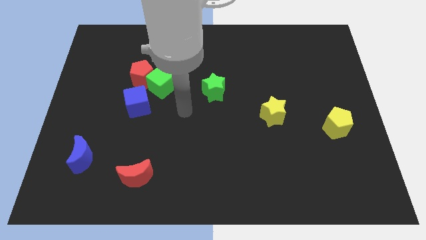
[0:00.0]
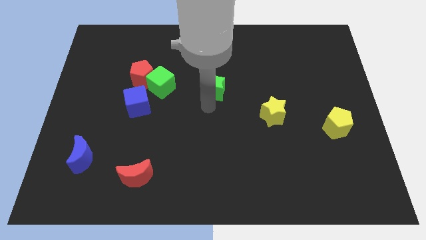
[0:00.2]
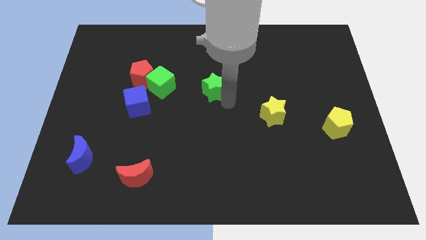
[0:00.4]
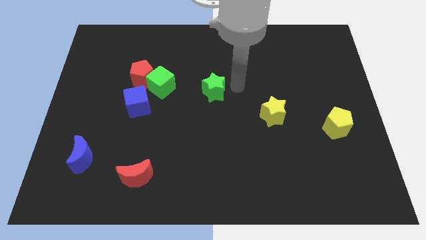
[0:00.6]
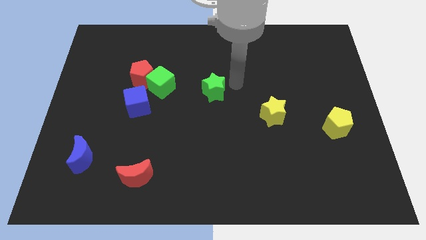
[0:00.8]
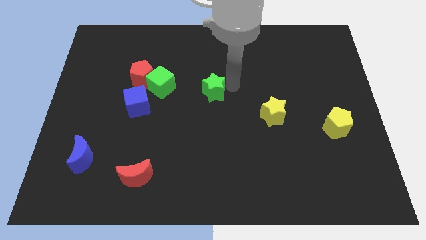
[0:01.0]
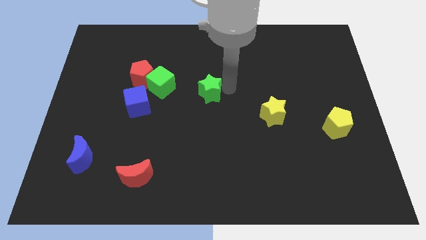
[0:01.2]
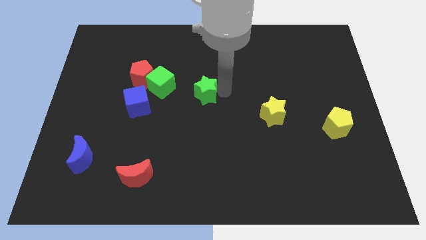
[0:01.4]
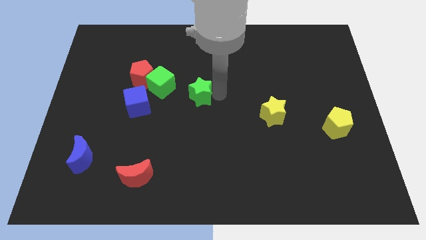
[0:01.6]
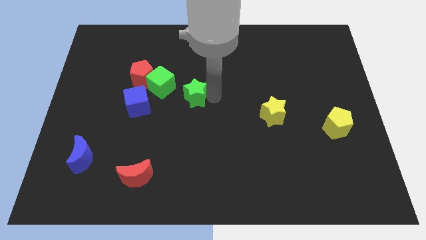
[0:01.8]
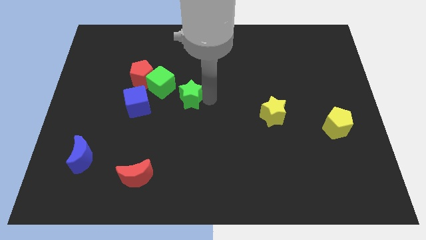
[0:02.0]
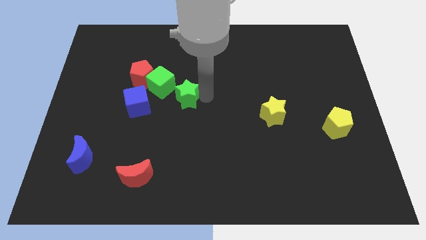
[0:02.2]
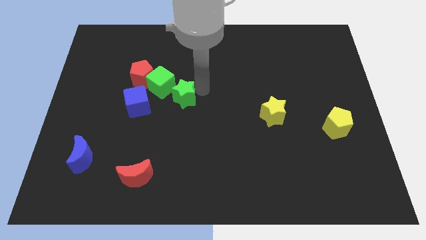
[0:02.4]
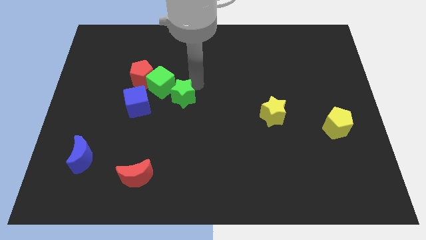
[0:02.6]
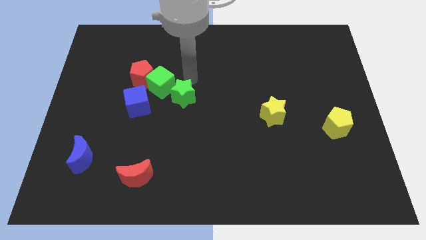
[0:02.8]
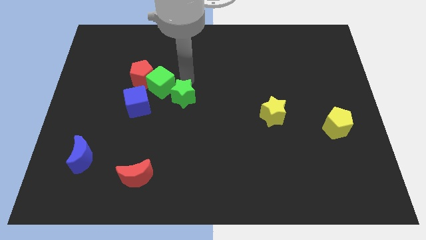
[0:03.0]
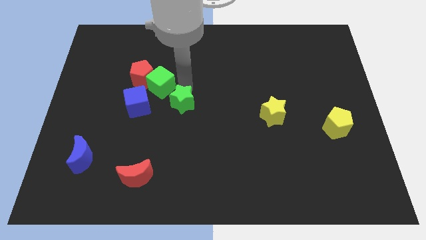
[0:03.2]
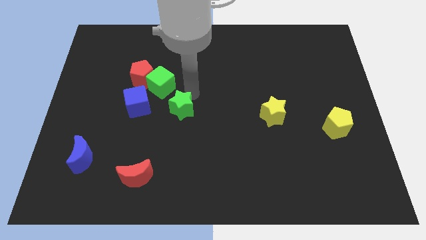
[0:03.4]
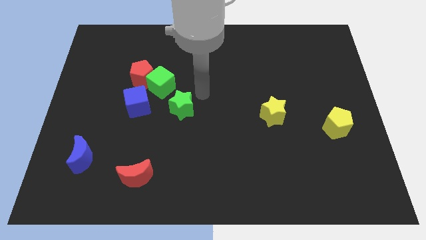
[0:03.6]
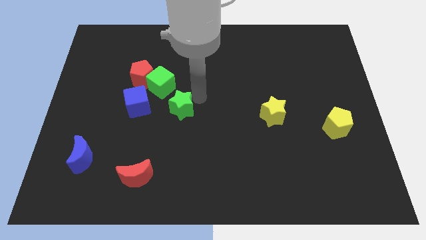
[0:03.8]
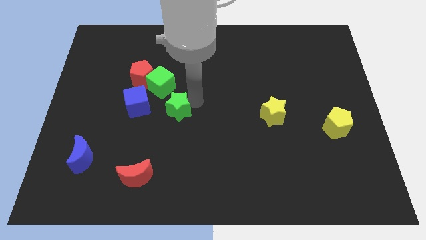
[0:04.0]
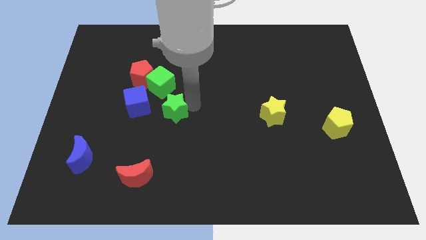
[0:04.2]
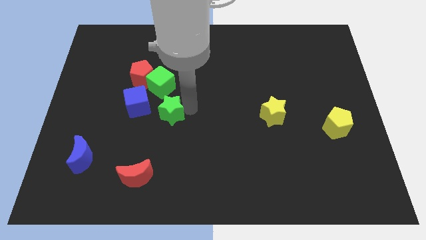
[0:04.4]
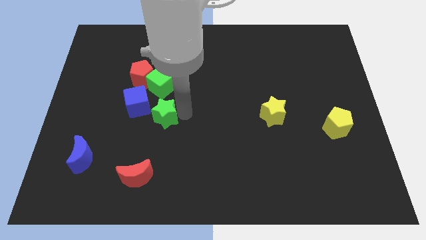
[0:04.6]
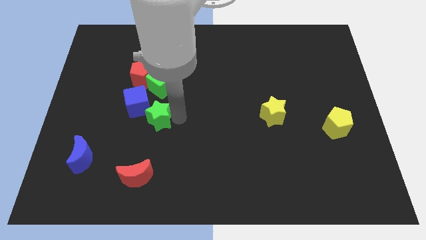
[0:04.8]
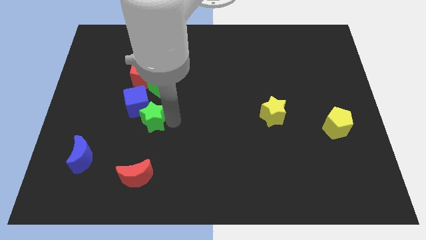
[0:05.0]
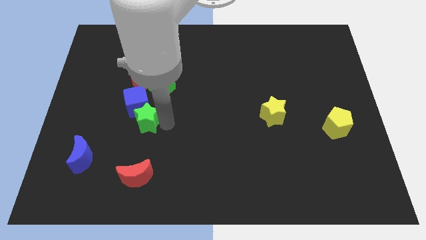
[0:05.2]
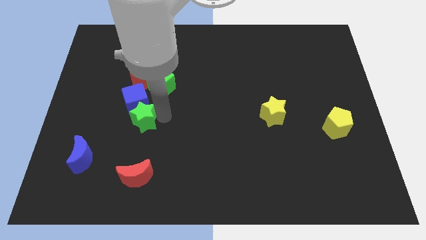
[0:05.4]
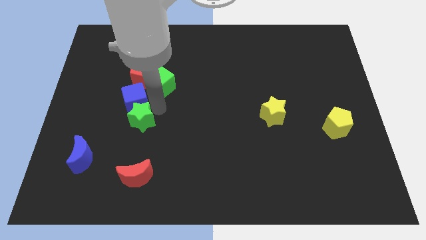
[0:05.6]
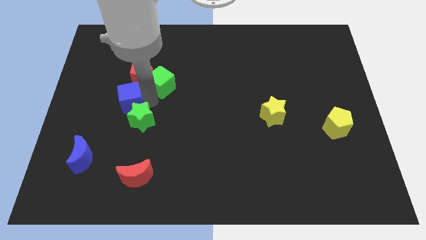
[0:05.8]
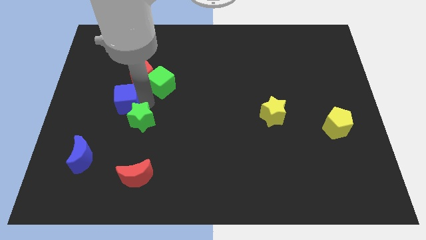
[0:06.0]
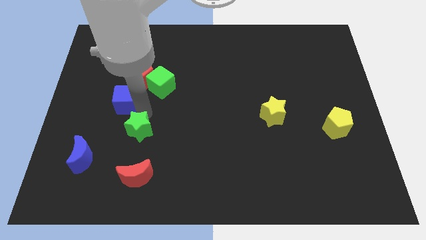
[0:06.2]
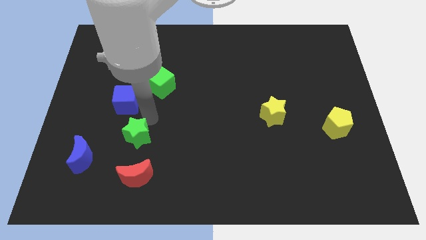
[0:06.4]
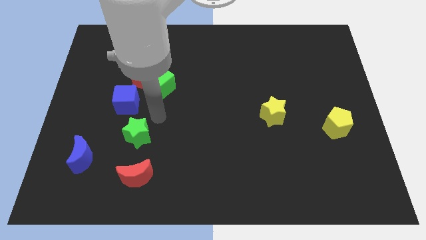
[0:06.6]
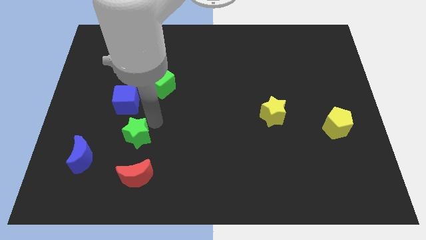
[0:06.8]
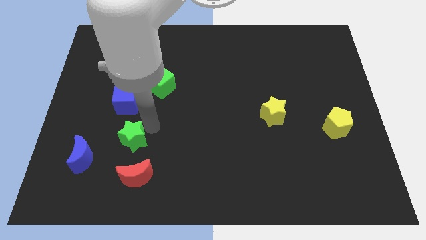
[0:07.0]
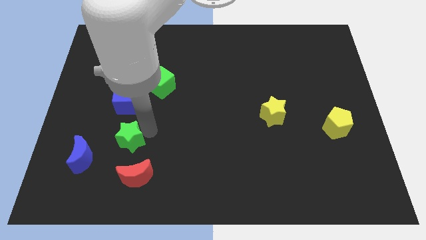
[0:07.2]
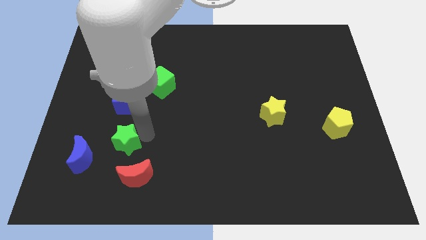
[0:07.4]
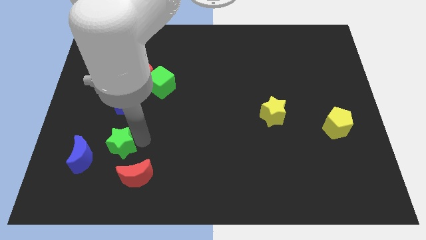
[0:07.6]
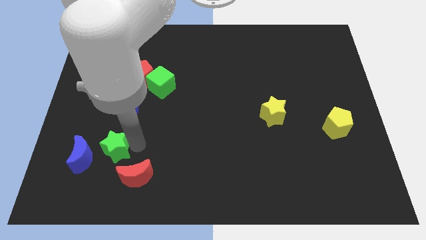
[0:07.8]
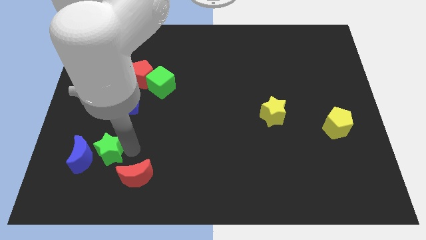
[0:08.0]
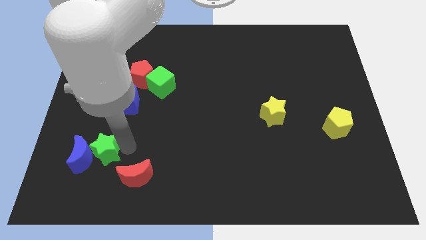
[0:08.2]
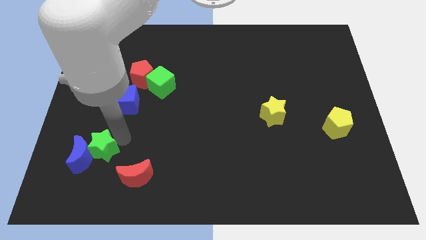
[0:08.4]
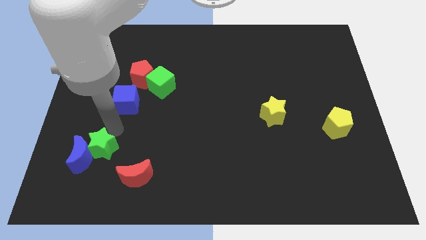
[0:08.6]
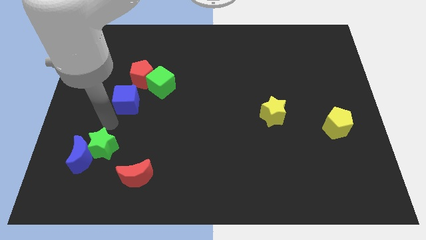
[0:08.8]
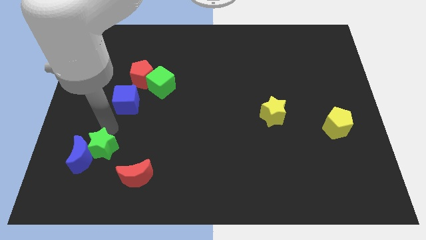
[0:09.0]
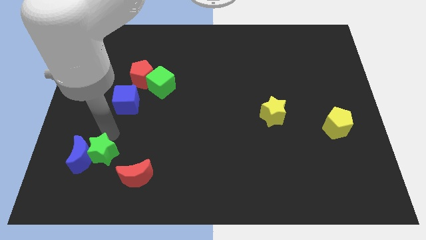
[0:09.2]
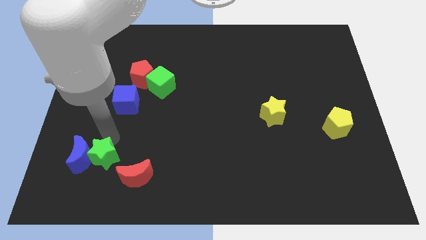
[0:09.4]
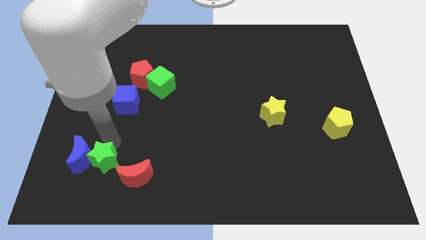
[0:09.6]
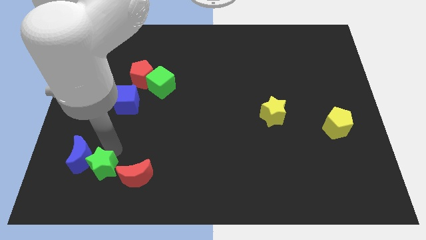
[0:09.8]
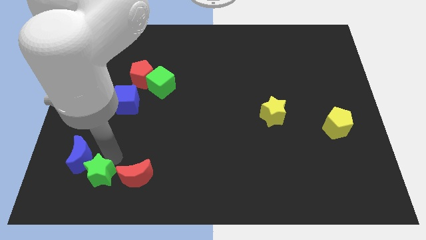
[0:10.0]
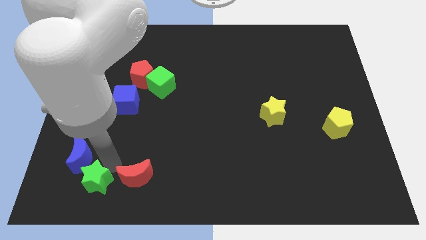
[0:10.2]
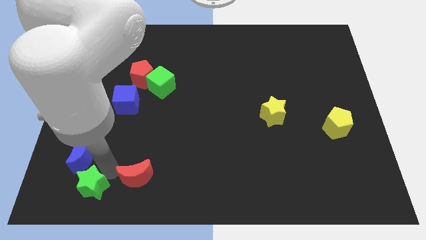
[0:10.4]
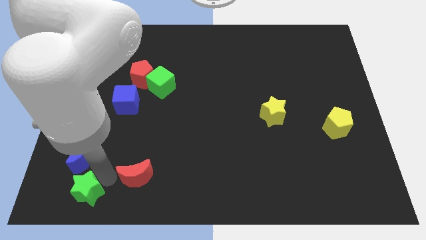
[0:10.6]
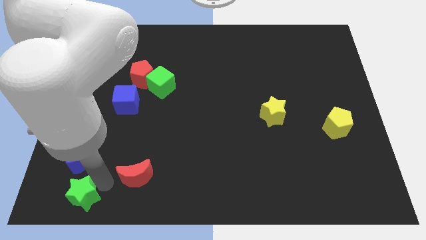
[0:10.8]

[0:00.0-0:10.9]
move the green star to the bottom left

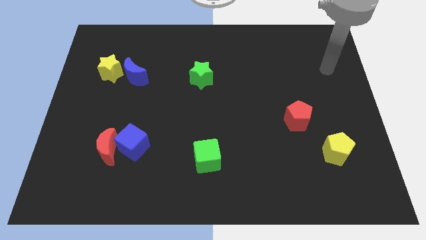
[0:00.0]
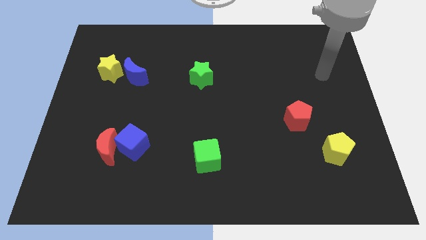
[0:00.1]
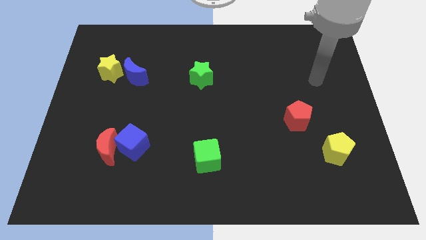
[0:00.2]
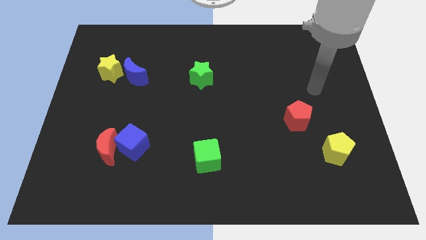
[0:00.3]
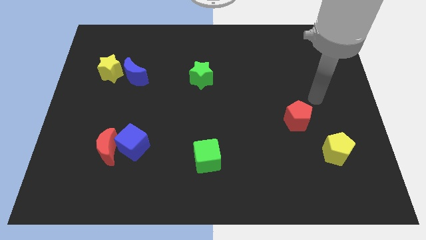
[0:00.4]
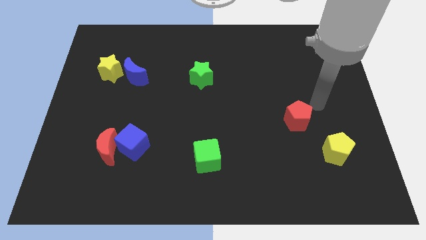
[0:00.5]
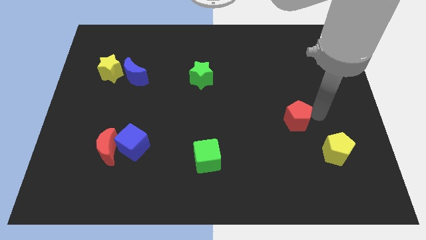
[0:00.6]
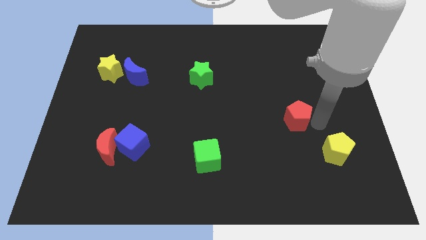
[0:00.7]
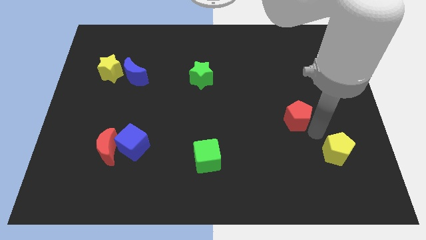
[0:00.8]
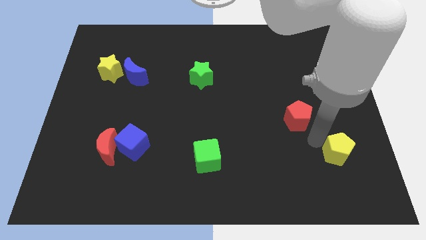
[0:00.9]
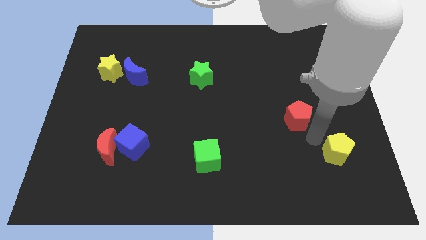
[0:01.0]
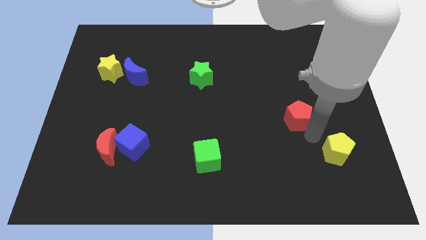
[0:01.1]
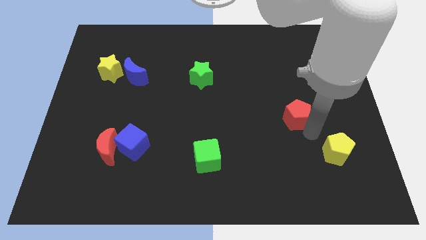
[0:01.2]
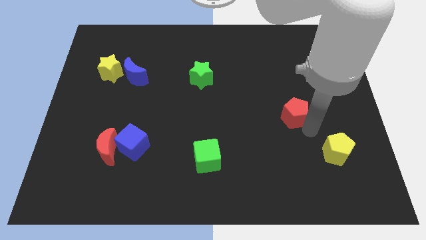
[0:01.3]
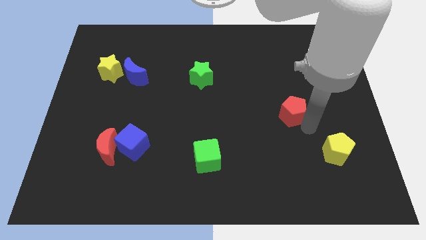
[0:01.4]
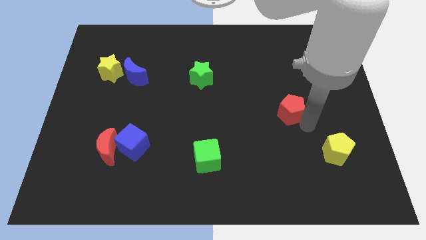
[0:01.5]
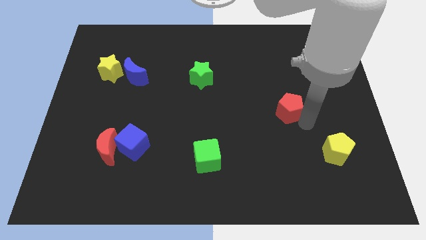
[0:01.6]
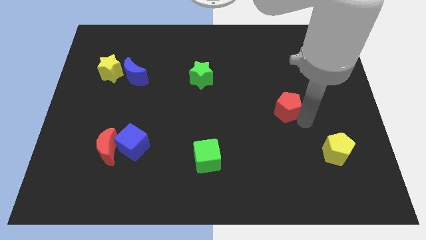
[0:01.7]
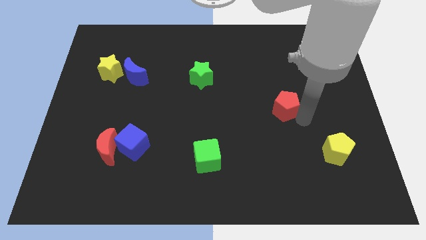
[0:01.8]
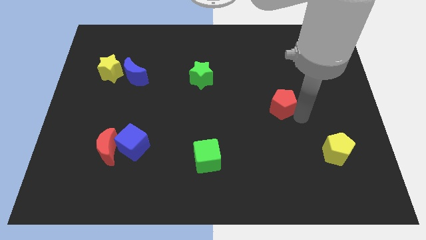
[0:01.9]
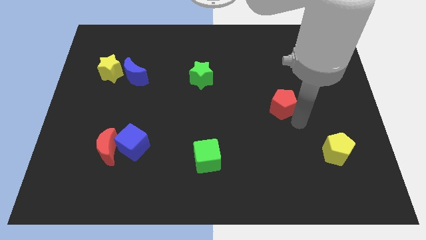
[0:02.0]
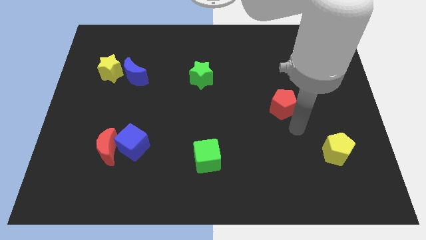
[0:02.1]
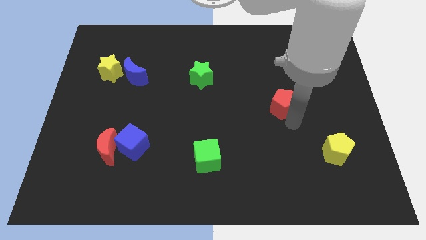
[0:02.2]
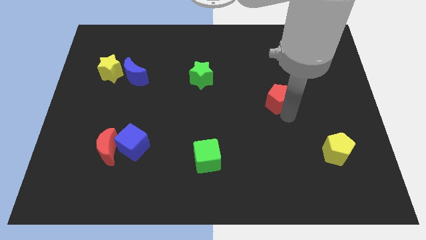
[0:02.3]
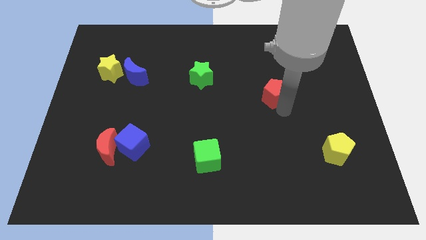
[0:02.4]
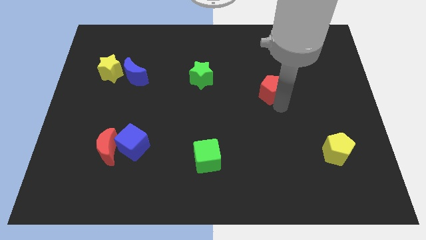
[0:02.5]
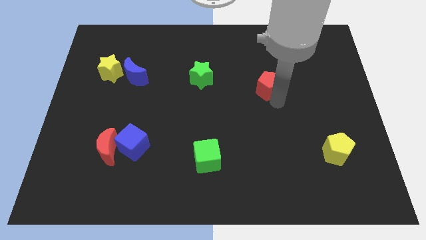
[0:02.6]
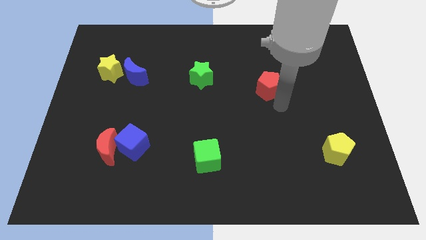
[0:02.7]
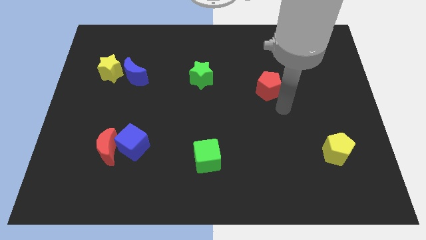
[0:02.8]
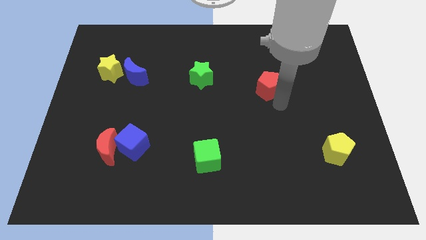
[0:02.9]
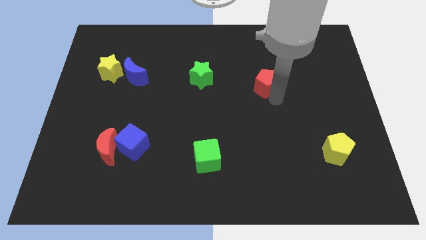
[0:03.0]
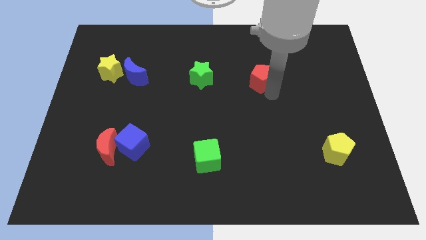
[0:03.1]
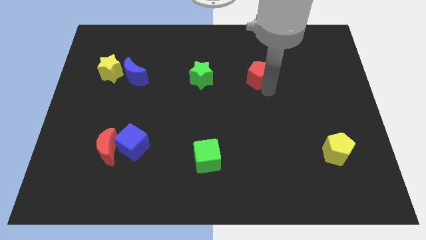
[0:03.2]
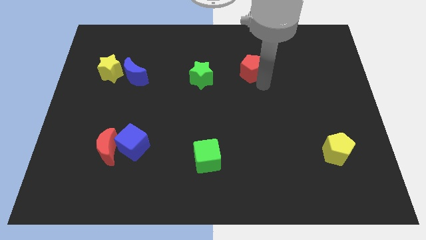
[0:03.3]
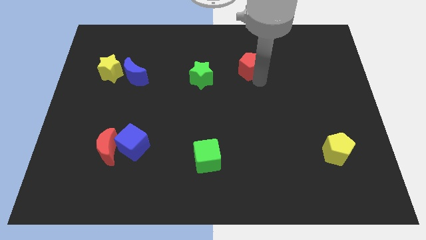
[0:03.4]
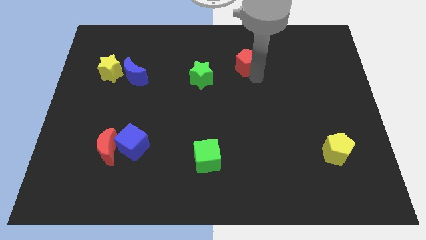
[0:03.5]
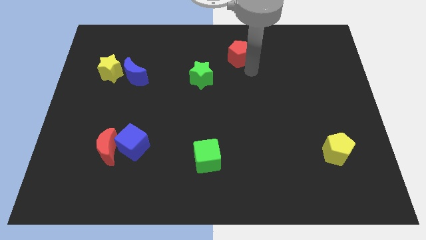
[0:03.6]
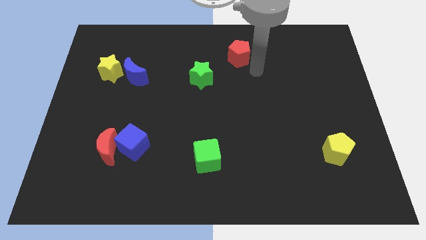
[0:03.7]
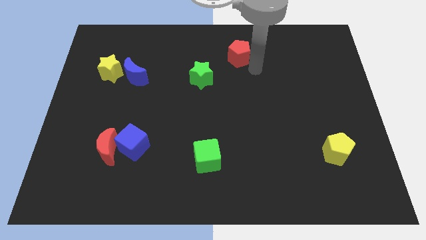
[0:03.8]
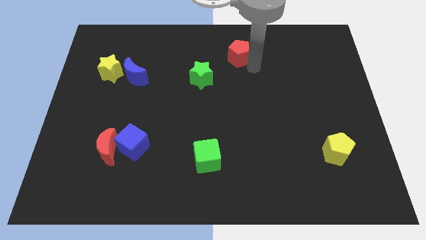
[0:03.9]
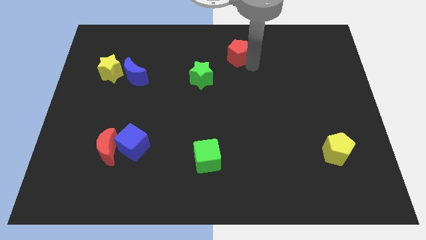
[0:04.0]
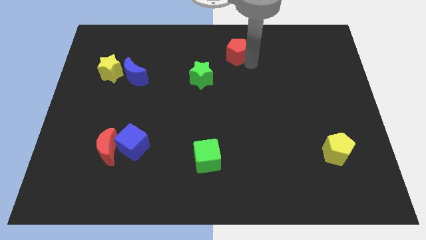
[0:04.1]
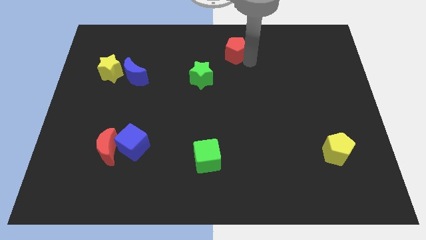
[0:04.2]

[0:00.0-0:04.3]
put the red pentagon to the towards your base
